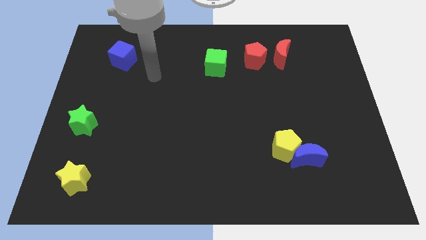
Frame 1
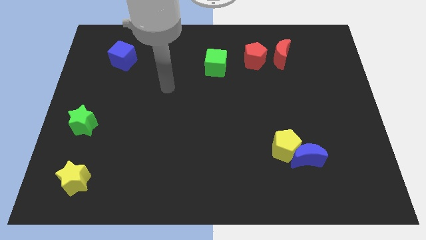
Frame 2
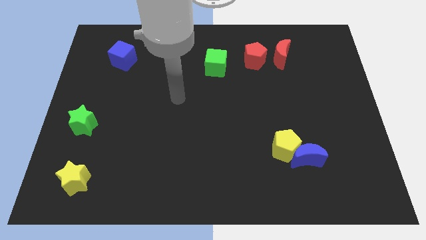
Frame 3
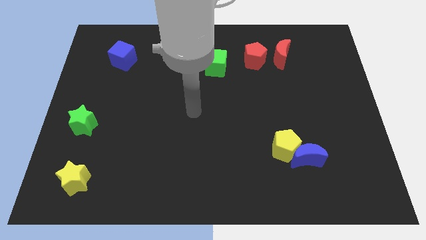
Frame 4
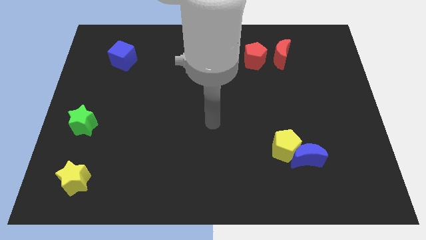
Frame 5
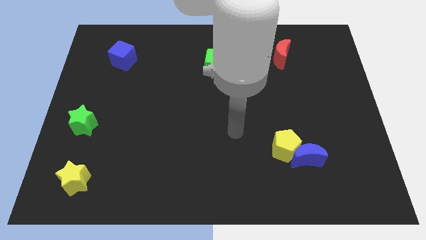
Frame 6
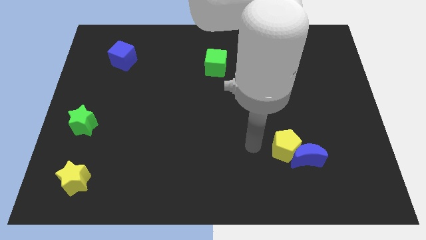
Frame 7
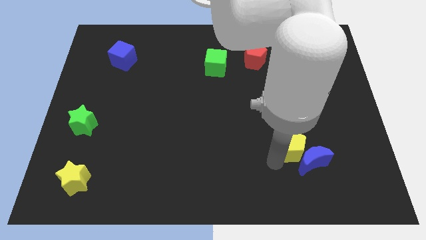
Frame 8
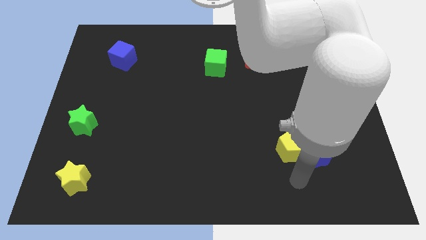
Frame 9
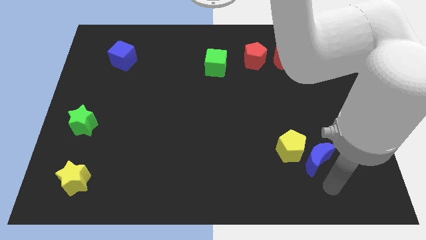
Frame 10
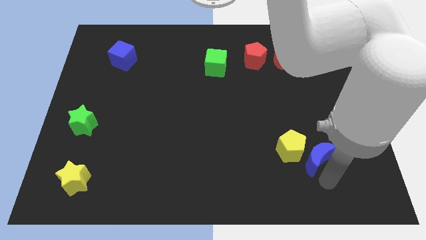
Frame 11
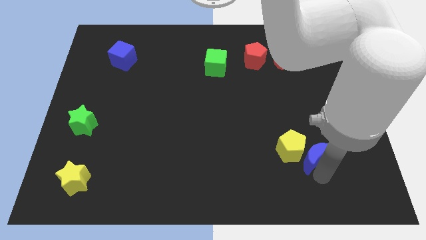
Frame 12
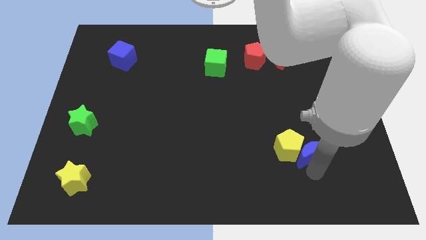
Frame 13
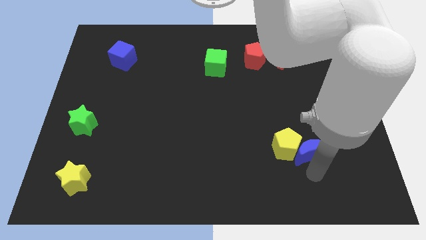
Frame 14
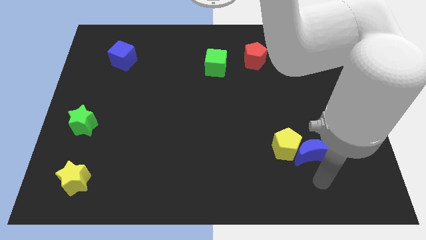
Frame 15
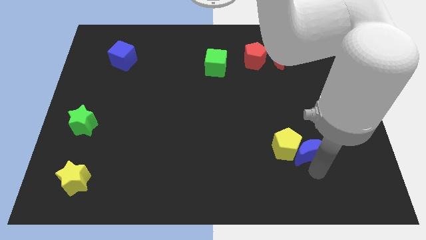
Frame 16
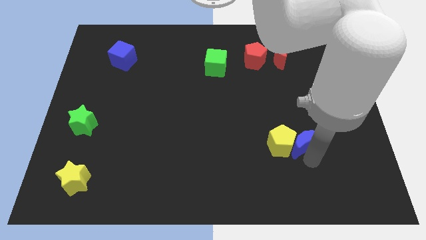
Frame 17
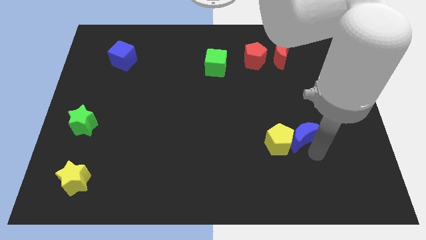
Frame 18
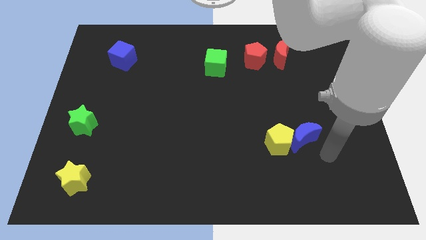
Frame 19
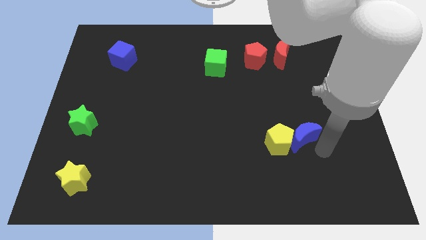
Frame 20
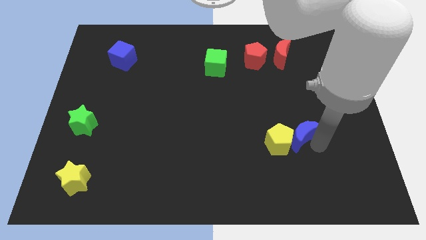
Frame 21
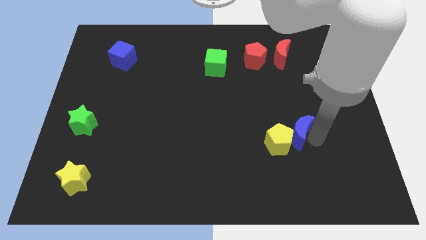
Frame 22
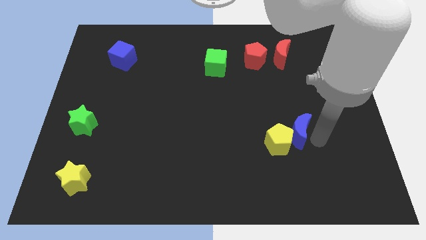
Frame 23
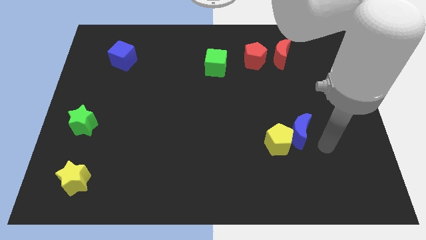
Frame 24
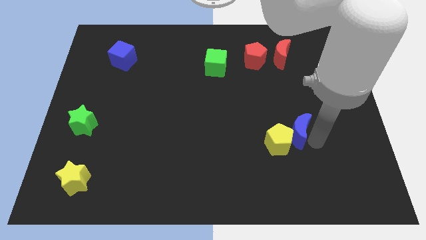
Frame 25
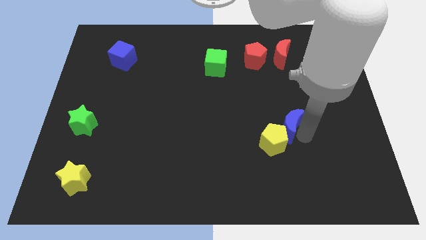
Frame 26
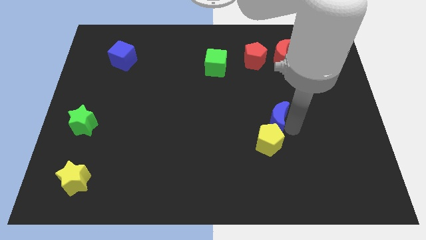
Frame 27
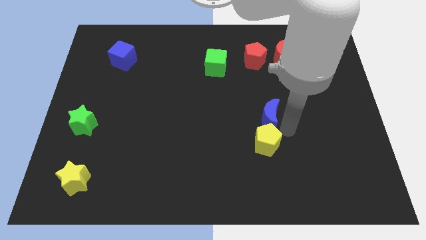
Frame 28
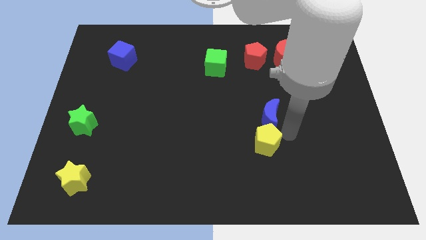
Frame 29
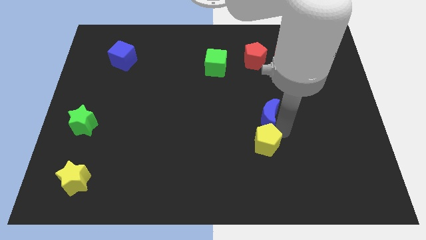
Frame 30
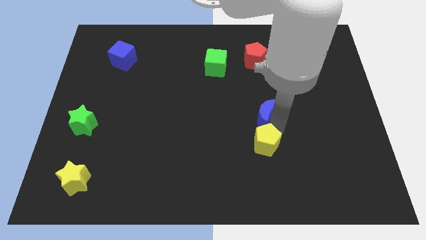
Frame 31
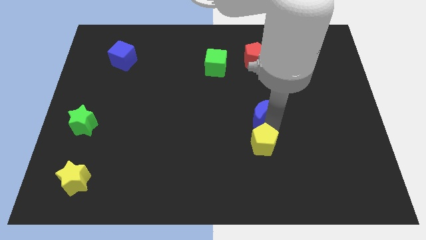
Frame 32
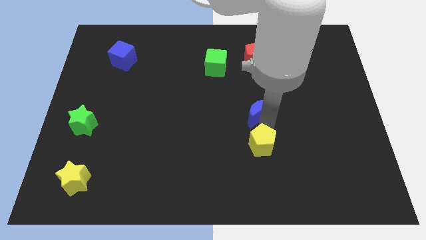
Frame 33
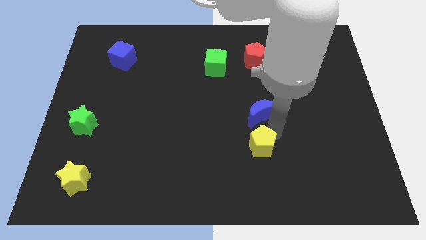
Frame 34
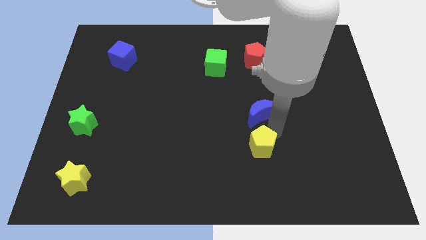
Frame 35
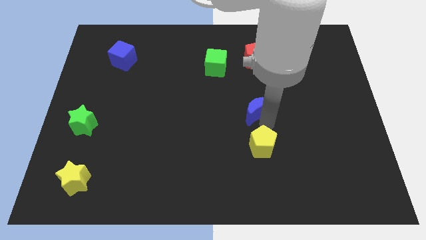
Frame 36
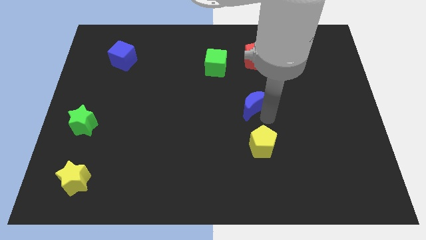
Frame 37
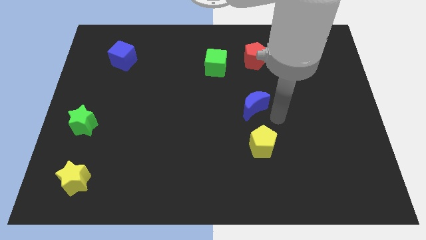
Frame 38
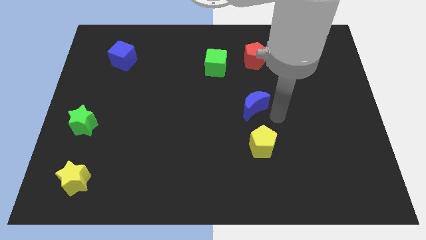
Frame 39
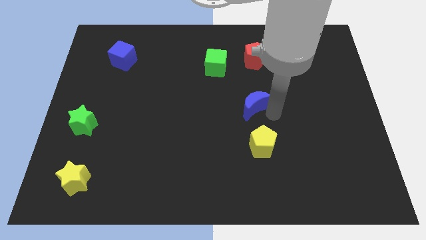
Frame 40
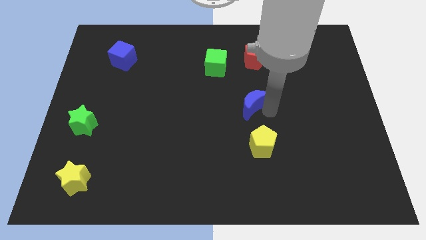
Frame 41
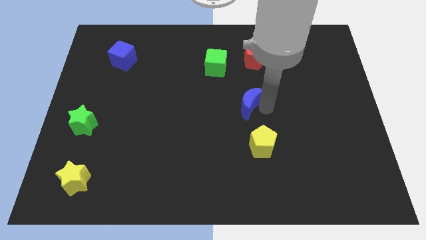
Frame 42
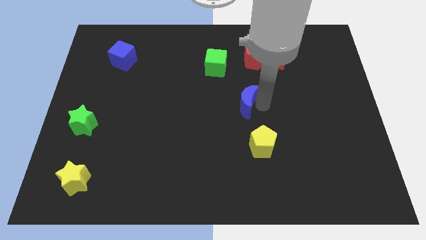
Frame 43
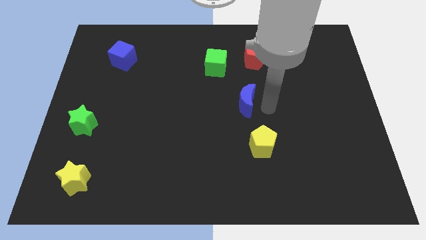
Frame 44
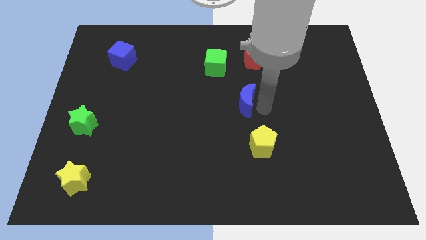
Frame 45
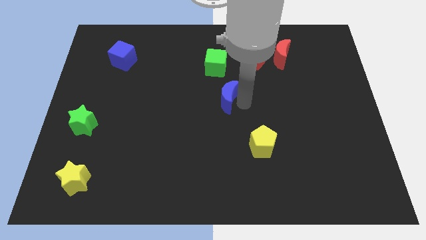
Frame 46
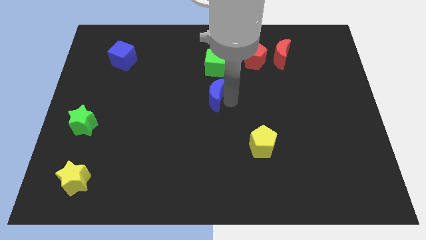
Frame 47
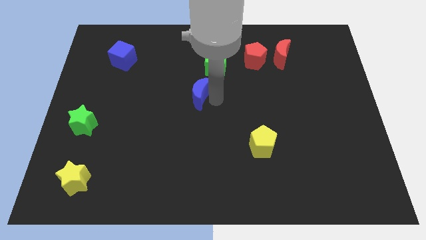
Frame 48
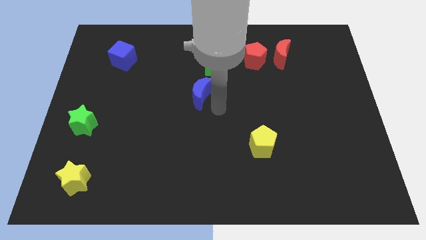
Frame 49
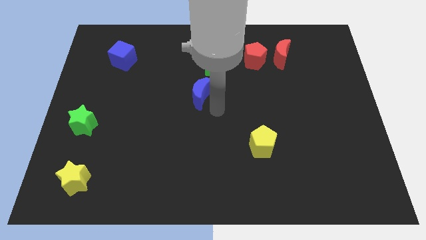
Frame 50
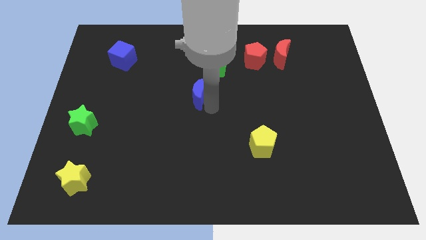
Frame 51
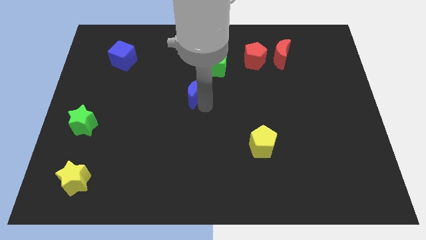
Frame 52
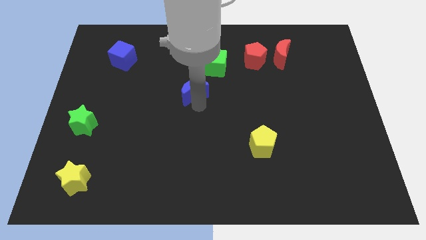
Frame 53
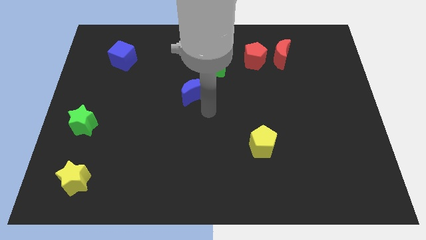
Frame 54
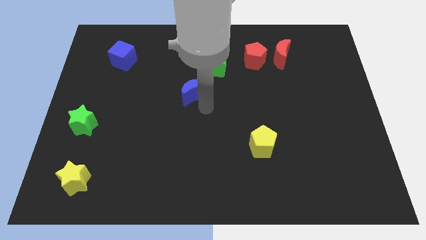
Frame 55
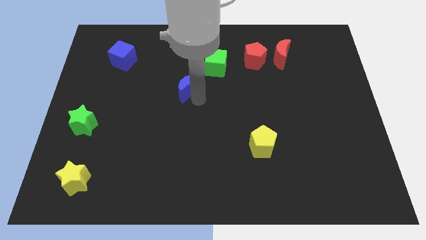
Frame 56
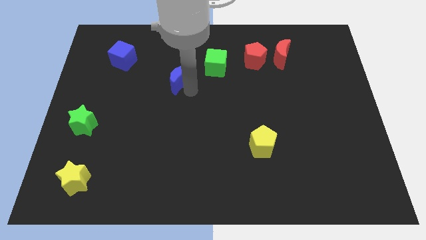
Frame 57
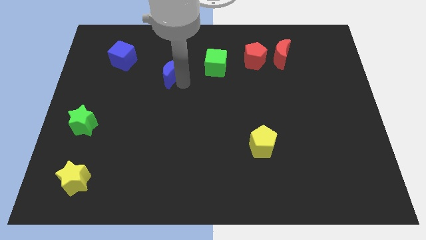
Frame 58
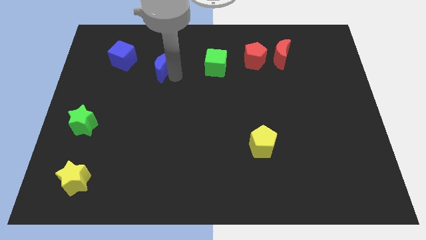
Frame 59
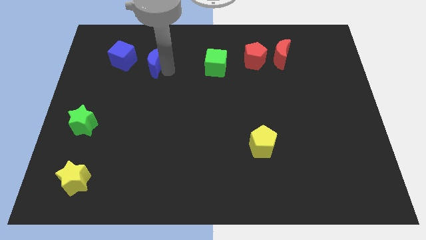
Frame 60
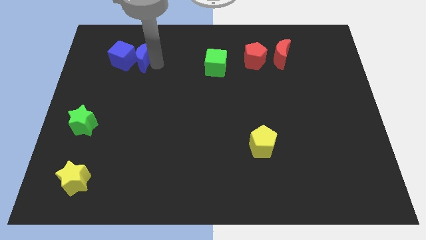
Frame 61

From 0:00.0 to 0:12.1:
slide the blue moon next to the blue cube
